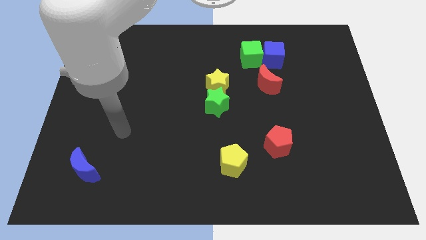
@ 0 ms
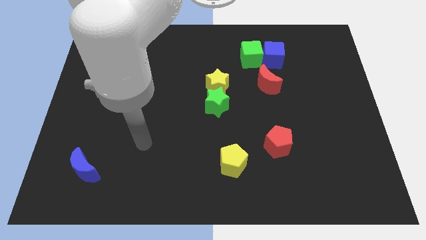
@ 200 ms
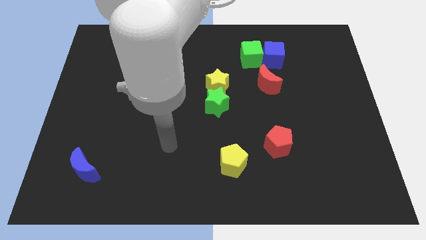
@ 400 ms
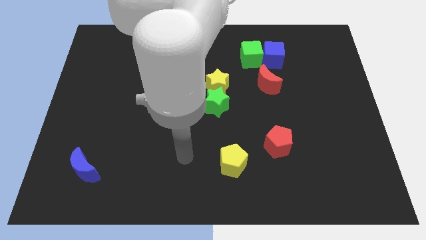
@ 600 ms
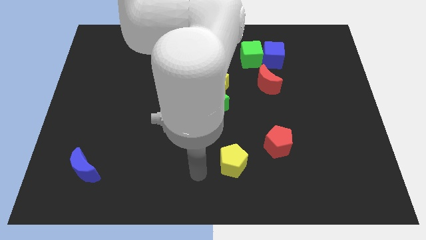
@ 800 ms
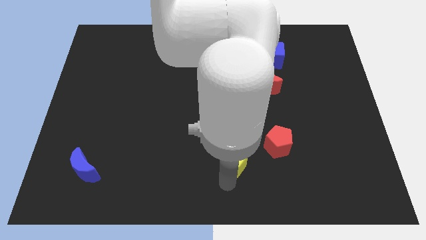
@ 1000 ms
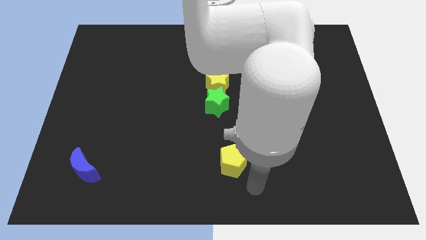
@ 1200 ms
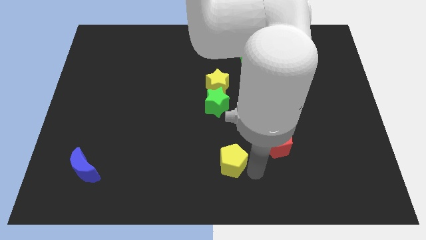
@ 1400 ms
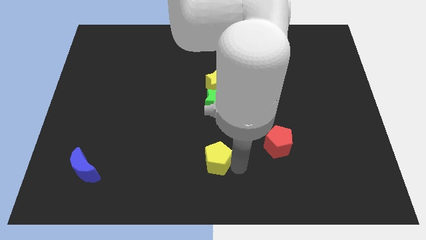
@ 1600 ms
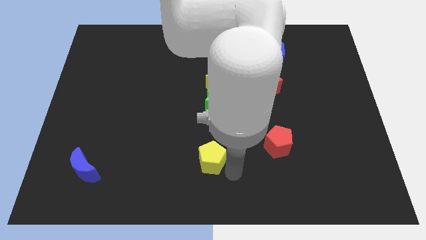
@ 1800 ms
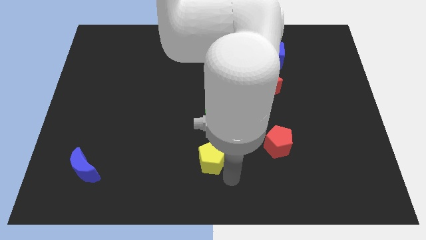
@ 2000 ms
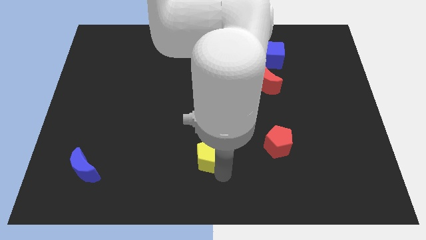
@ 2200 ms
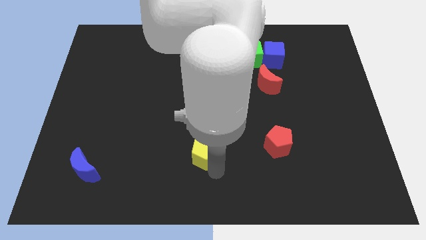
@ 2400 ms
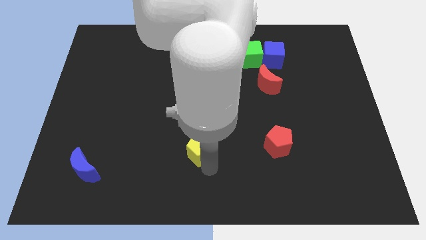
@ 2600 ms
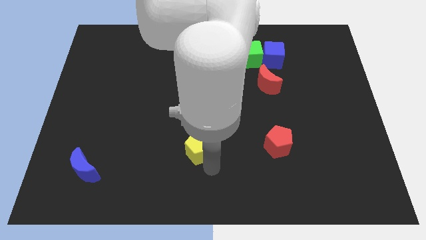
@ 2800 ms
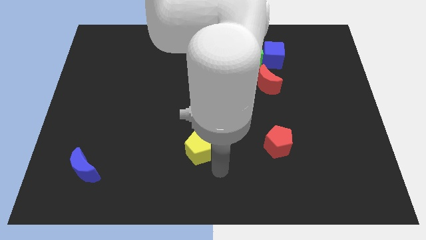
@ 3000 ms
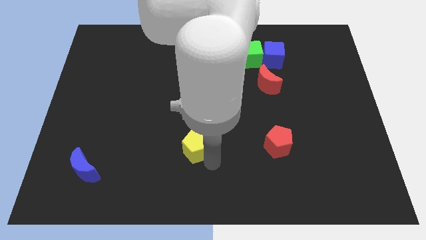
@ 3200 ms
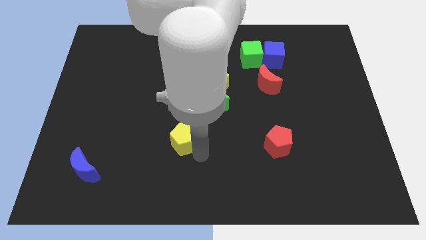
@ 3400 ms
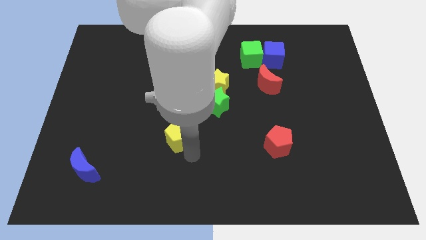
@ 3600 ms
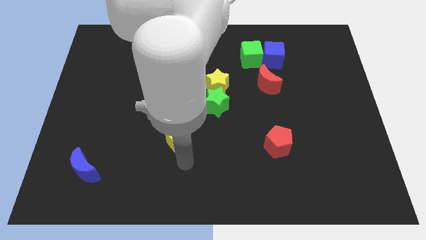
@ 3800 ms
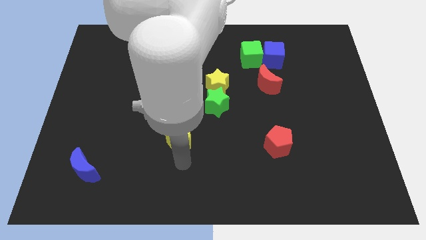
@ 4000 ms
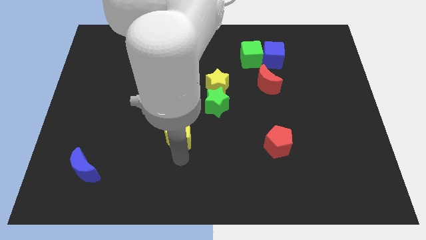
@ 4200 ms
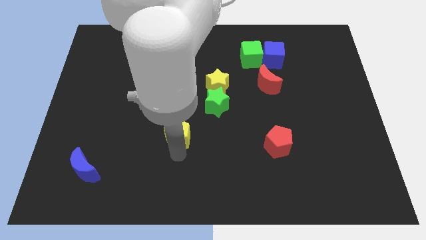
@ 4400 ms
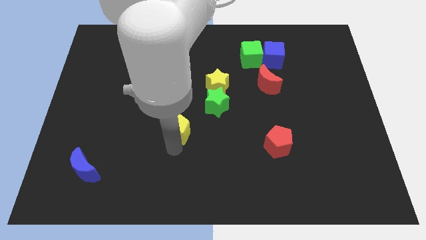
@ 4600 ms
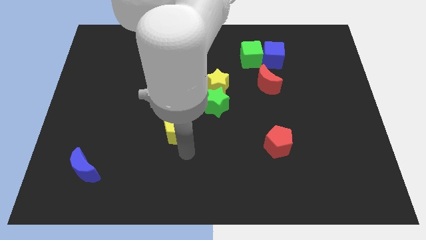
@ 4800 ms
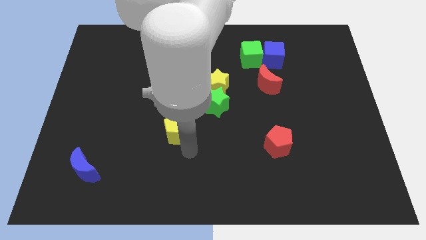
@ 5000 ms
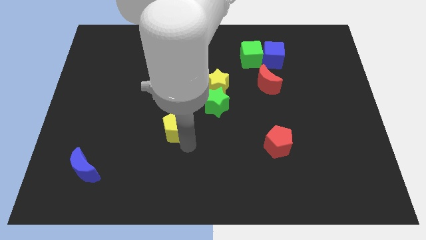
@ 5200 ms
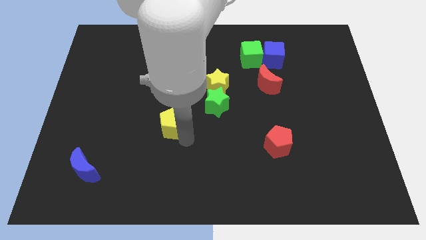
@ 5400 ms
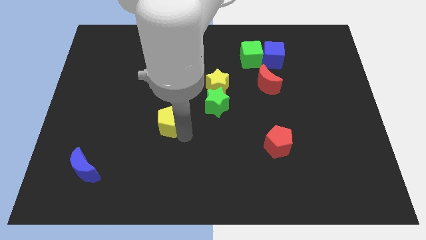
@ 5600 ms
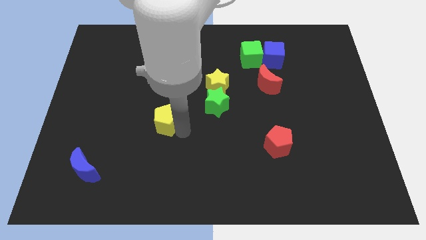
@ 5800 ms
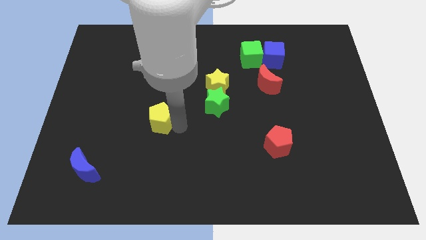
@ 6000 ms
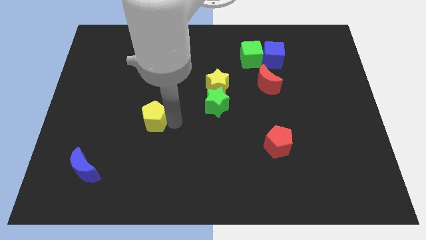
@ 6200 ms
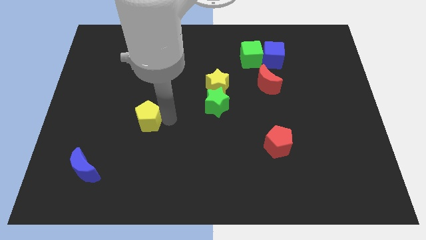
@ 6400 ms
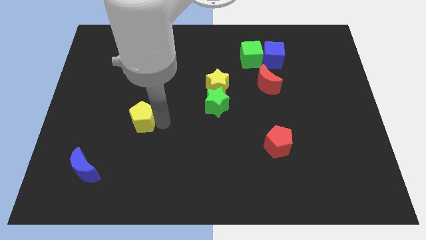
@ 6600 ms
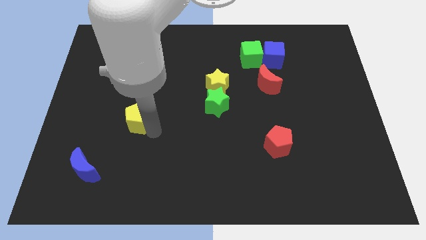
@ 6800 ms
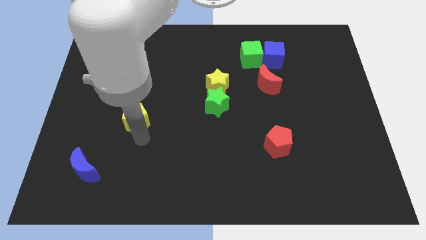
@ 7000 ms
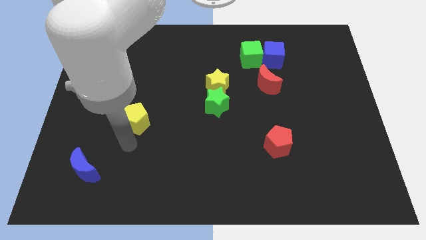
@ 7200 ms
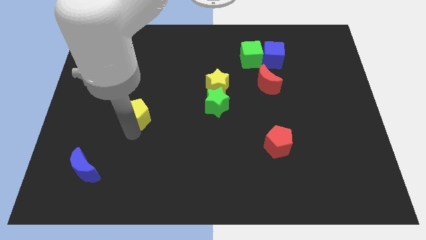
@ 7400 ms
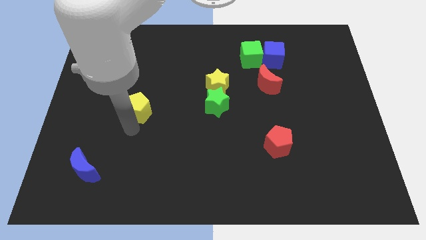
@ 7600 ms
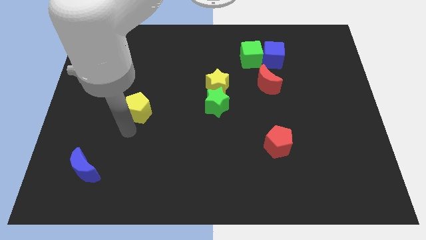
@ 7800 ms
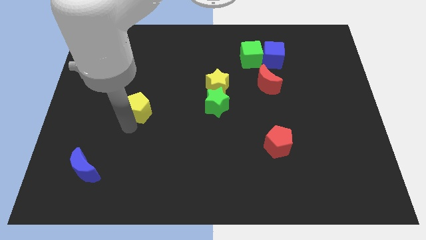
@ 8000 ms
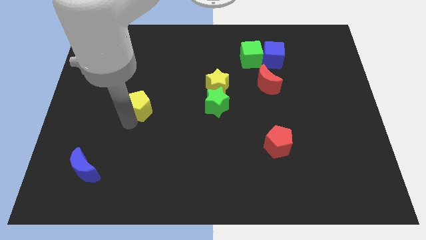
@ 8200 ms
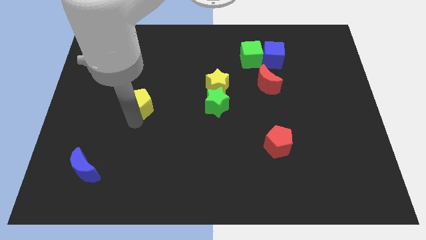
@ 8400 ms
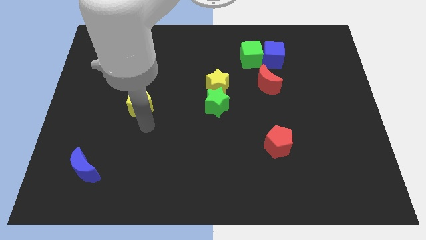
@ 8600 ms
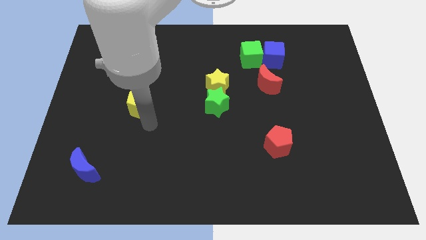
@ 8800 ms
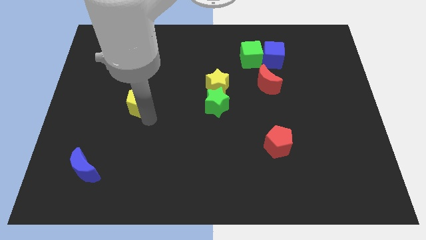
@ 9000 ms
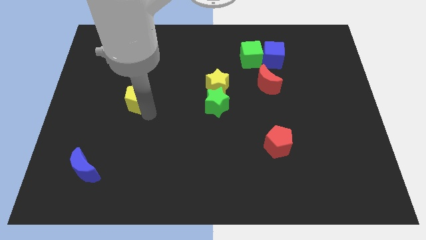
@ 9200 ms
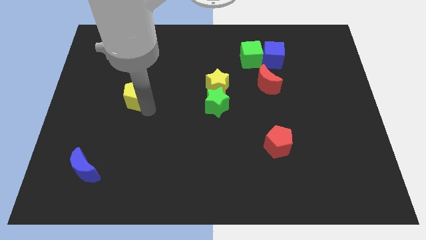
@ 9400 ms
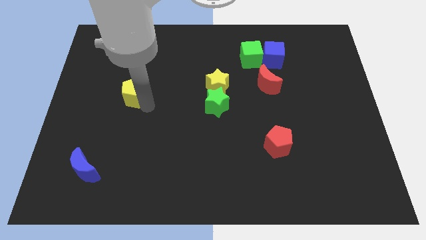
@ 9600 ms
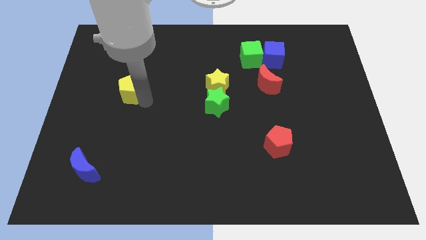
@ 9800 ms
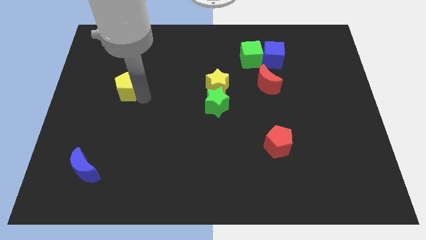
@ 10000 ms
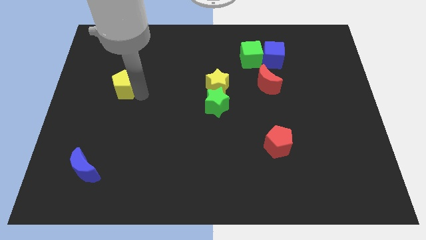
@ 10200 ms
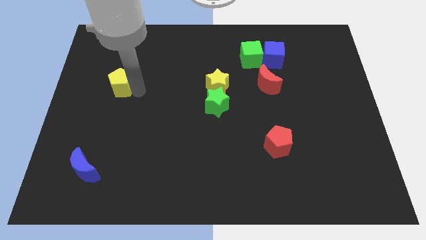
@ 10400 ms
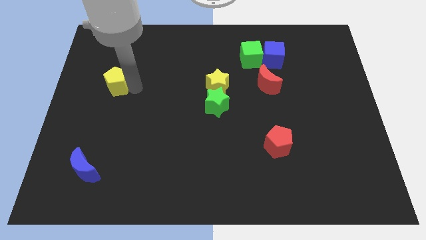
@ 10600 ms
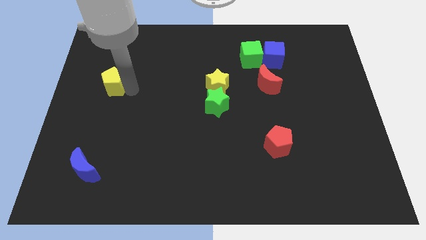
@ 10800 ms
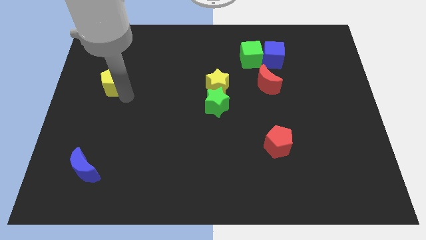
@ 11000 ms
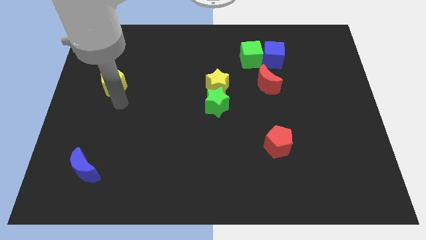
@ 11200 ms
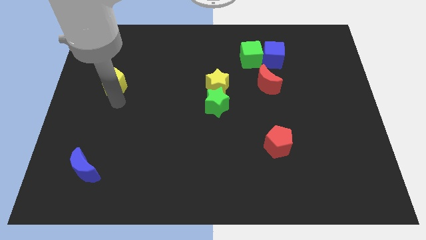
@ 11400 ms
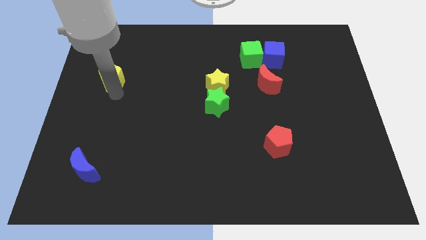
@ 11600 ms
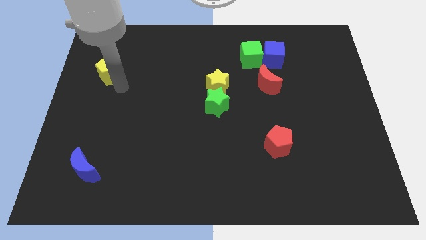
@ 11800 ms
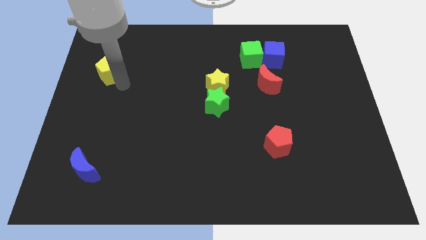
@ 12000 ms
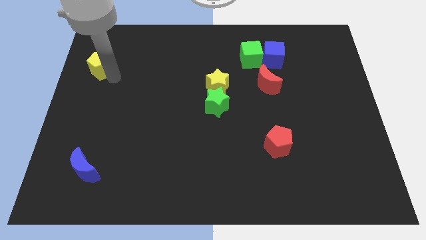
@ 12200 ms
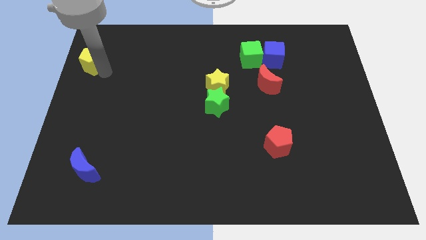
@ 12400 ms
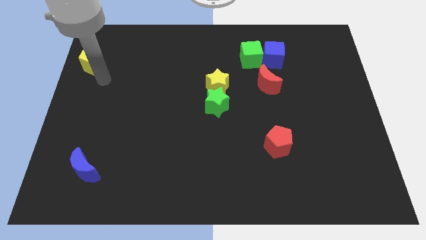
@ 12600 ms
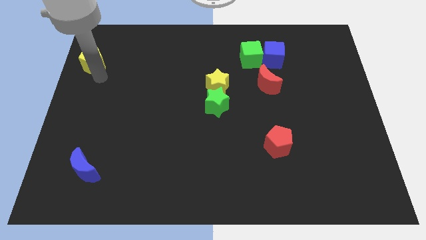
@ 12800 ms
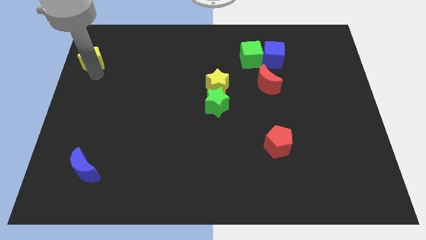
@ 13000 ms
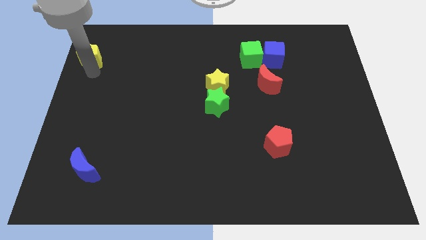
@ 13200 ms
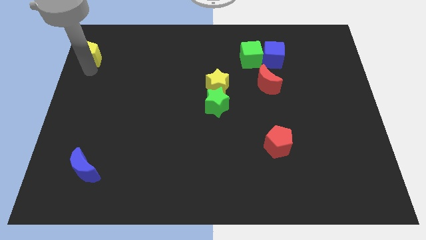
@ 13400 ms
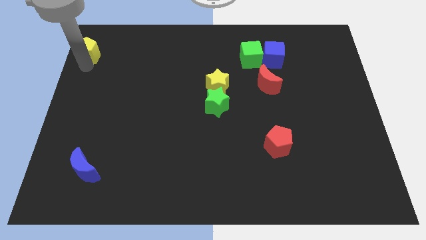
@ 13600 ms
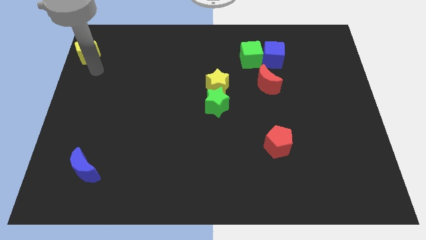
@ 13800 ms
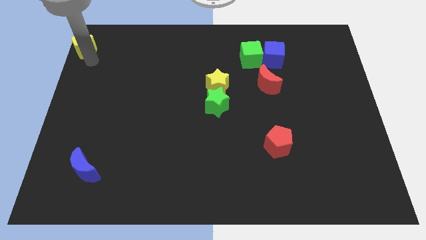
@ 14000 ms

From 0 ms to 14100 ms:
push the yellow pentagon to the top left corner
